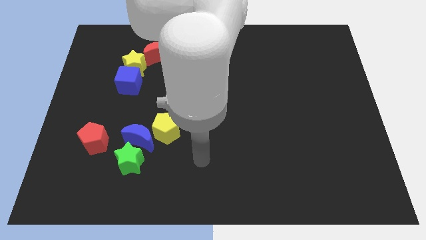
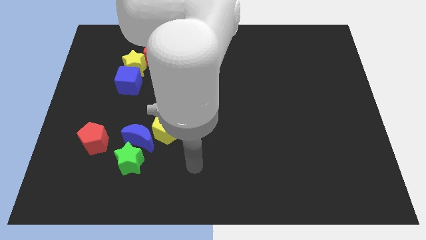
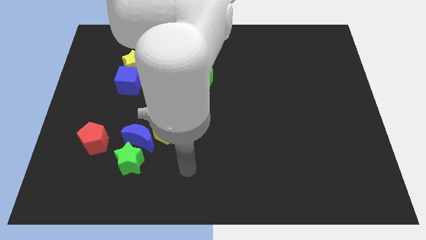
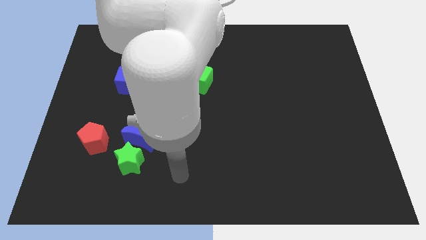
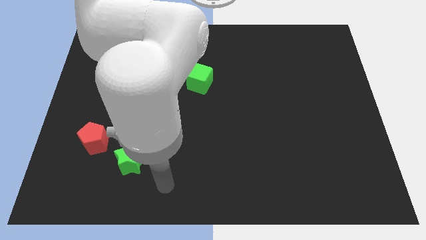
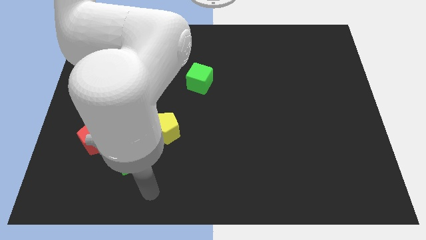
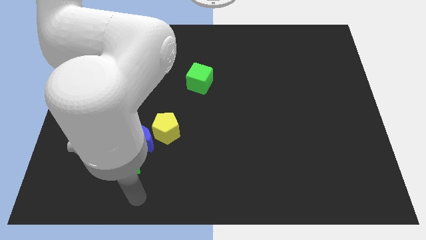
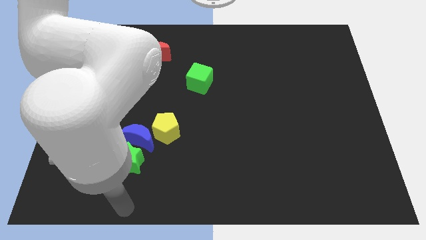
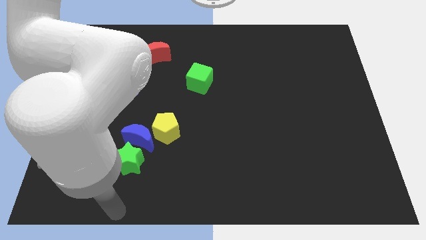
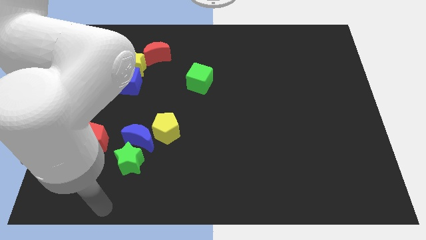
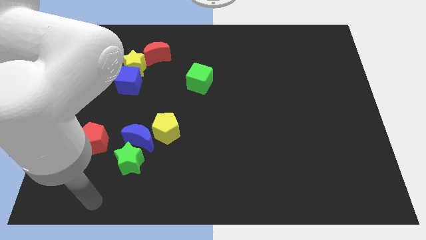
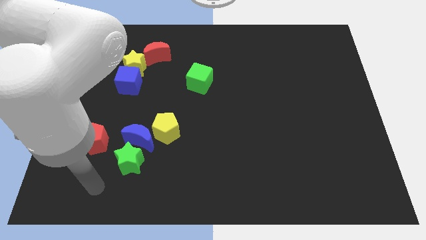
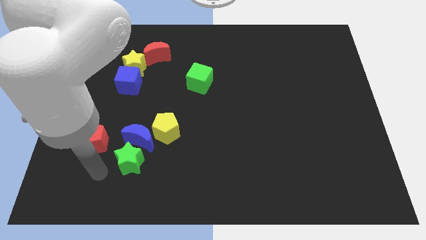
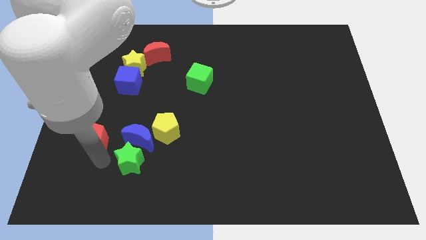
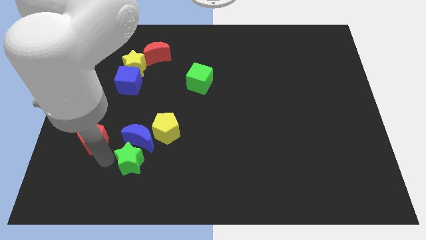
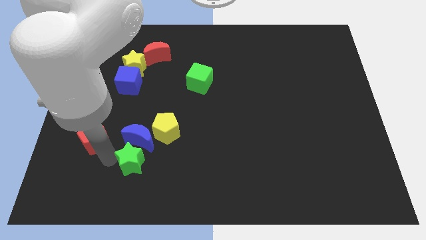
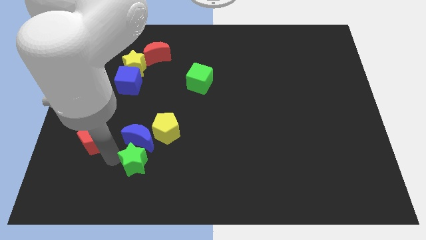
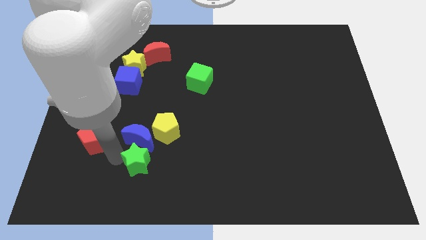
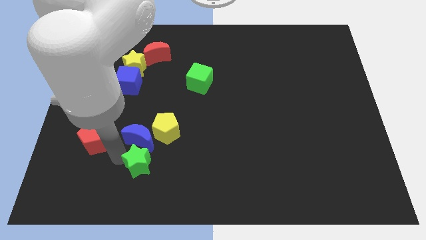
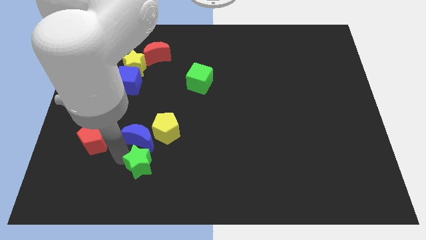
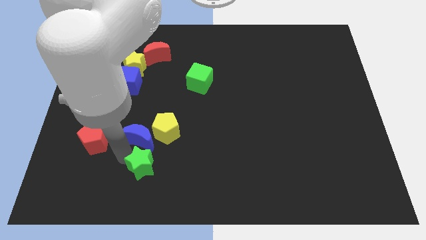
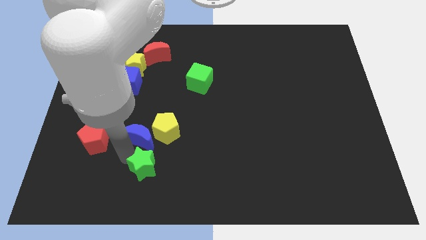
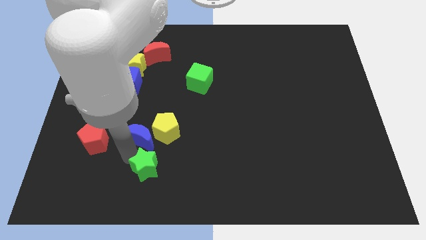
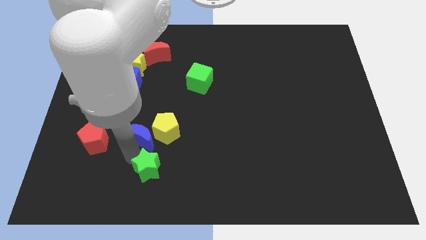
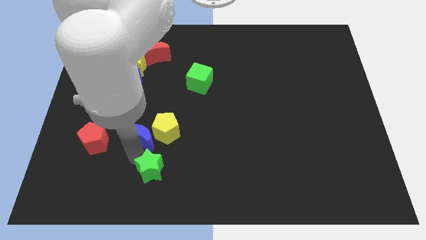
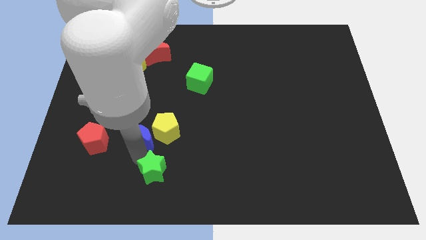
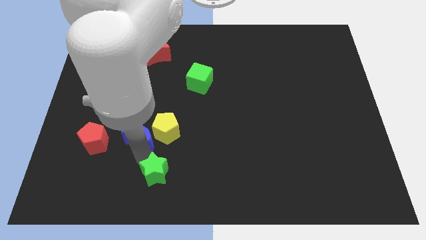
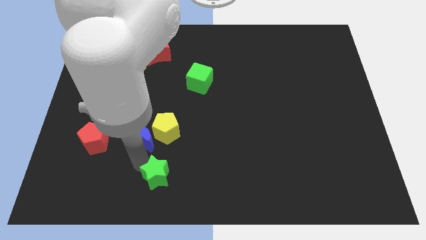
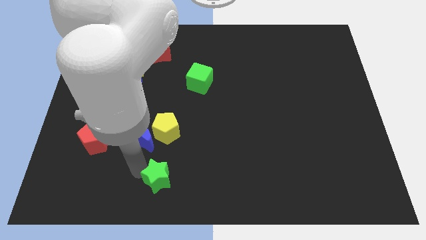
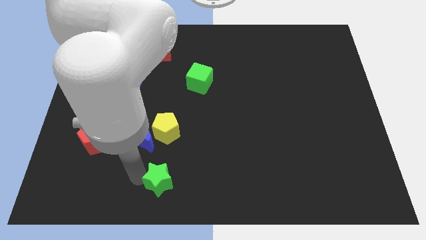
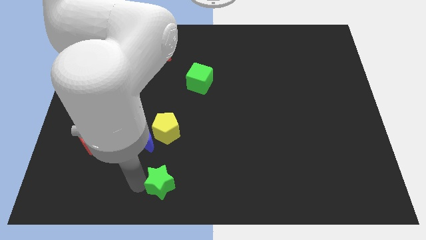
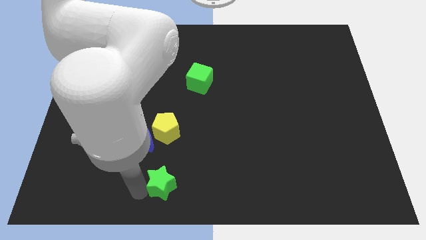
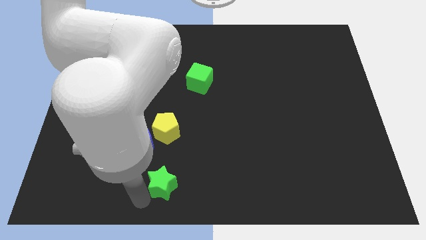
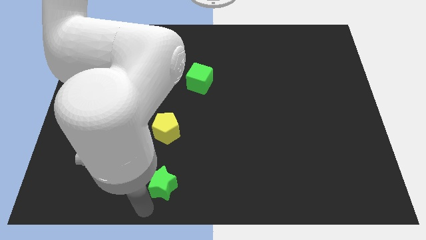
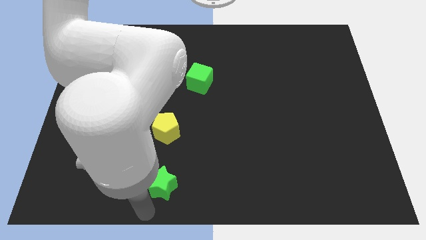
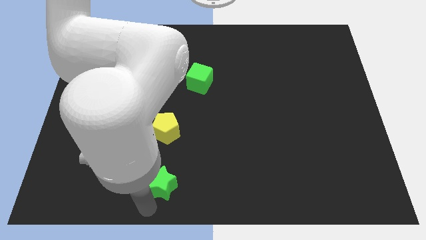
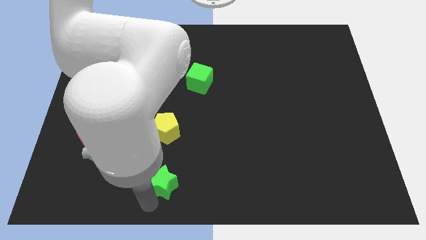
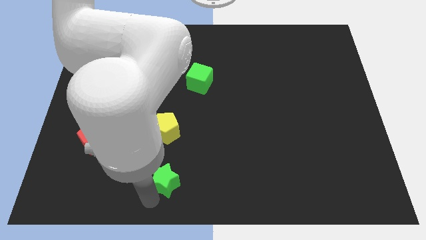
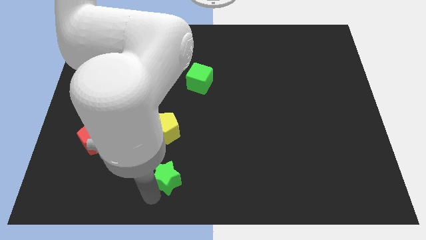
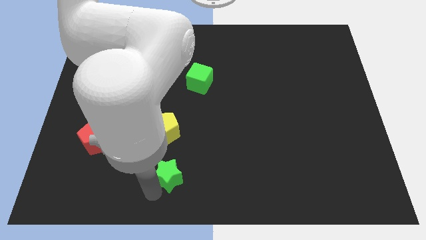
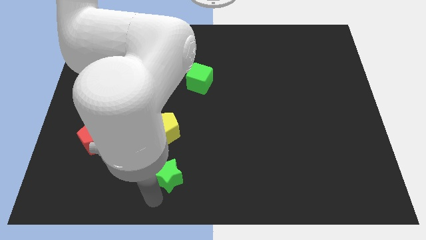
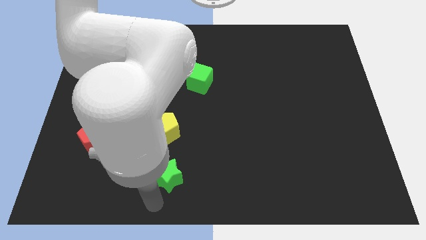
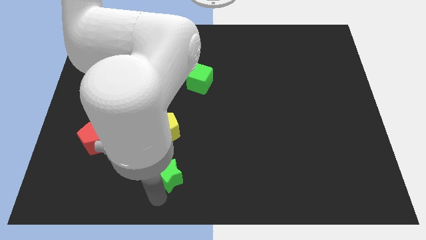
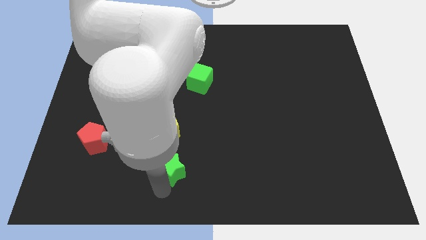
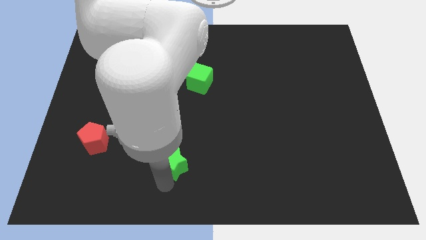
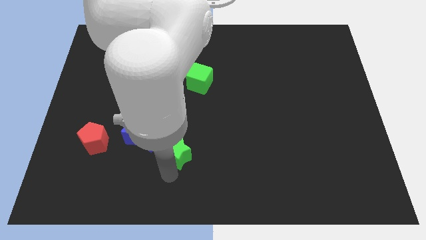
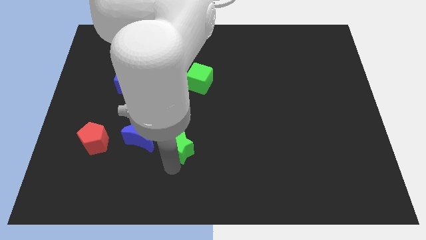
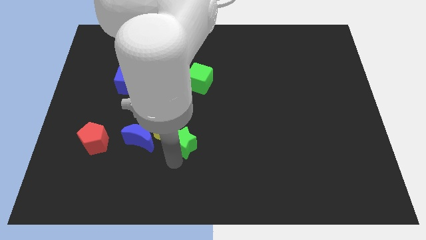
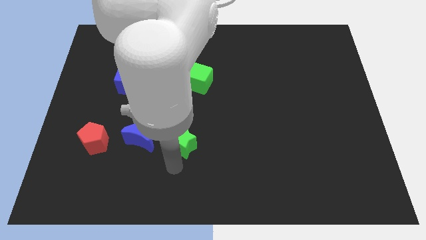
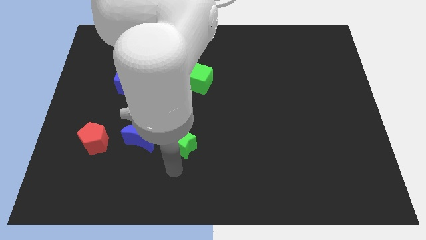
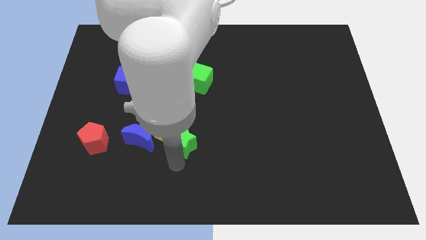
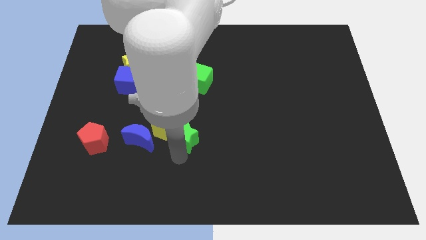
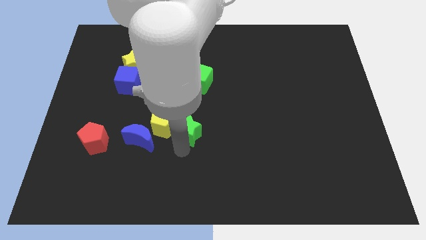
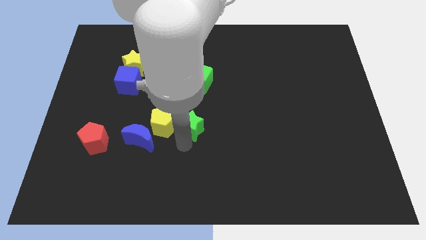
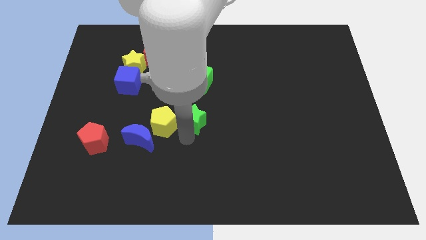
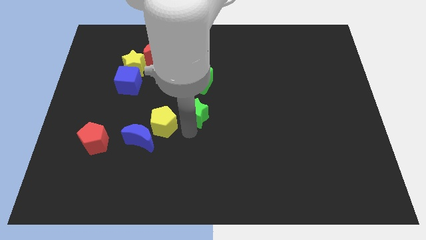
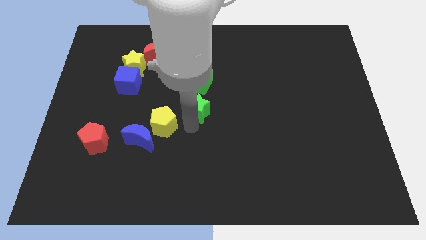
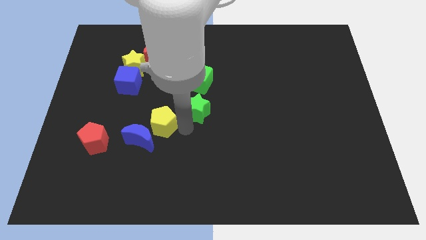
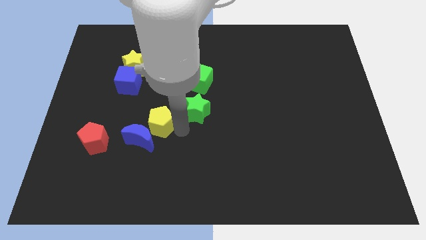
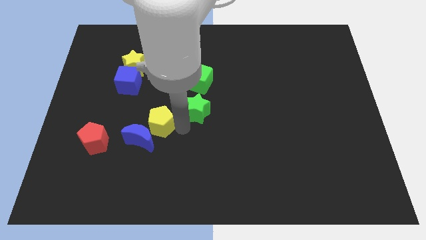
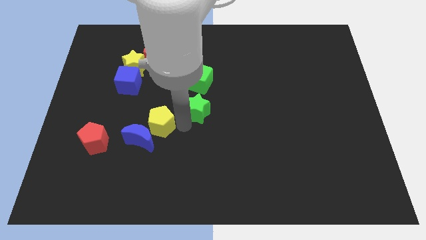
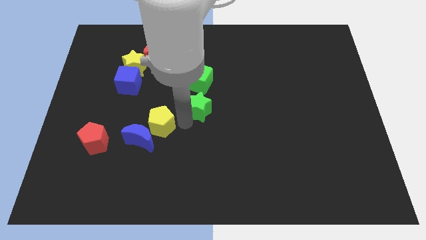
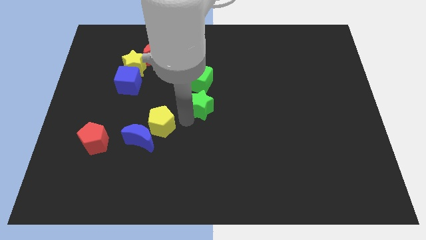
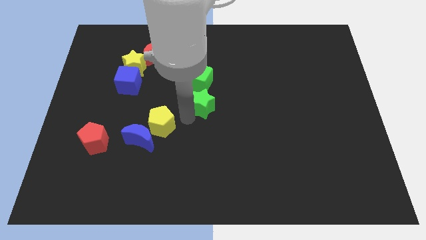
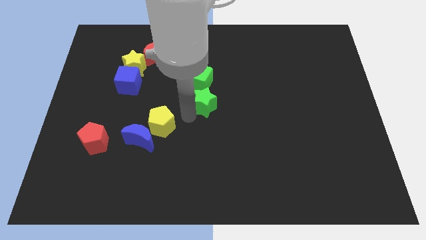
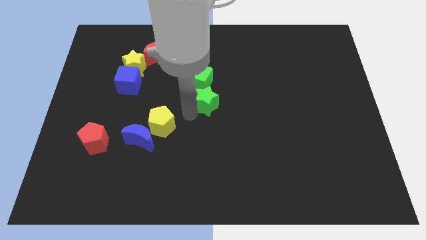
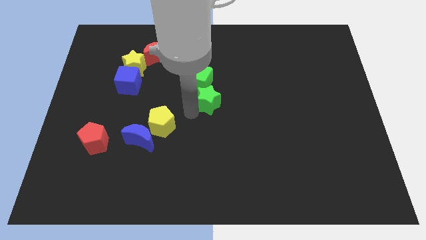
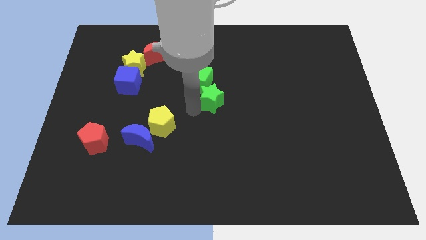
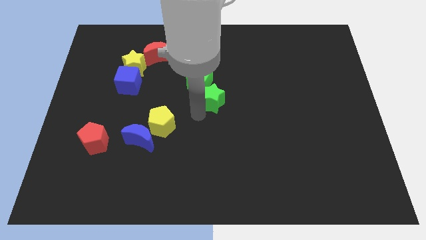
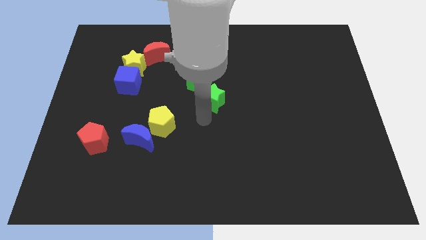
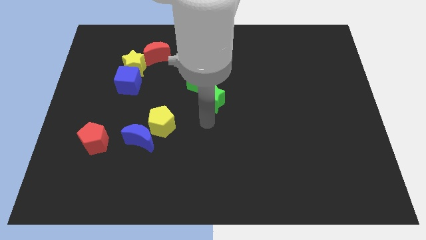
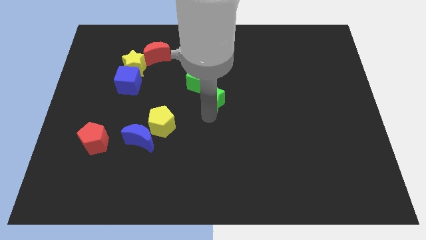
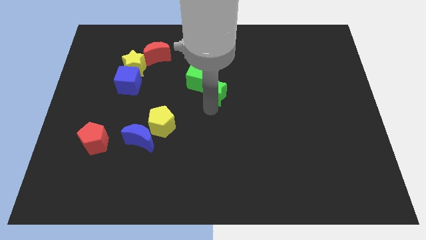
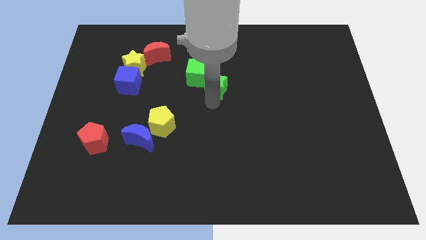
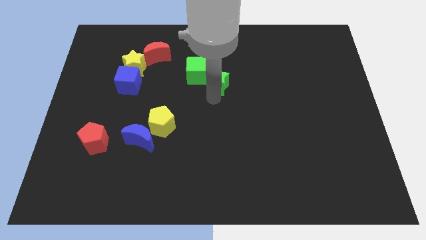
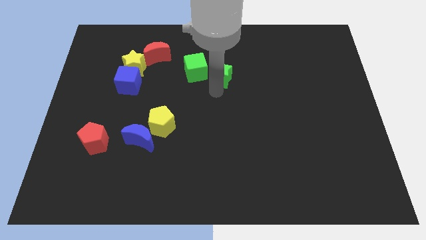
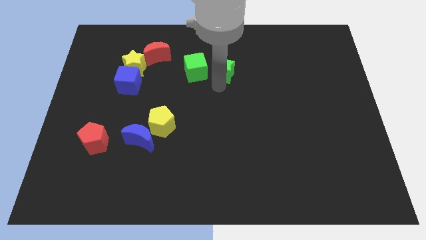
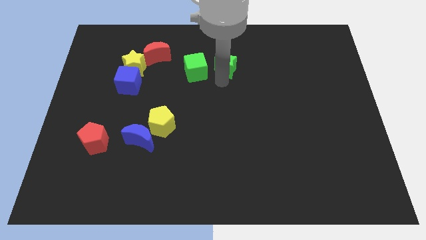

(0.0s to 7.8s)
push the green star to the top right side of the green cube
